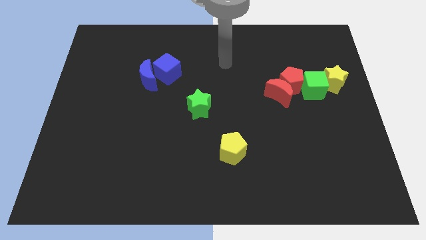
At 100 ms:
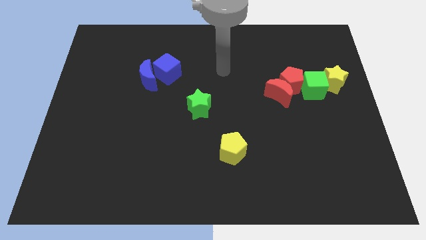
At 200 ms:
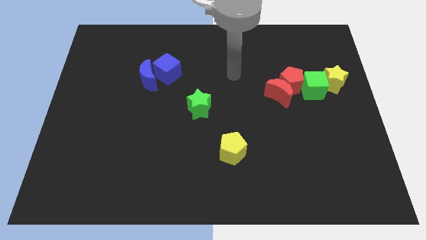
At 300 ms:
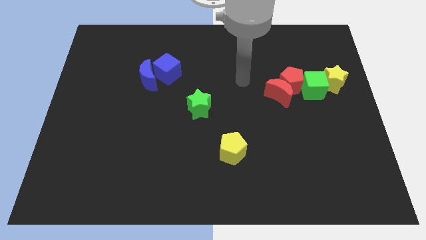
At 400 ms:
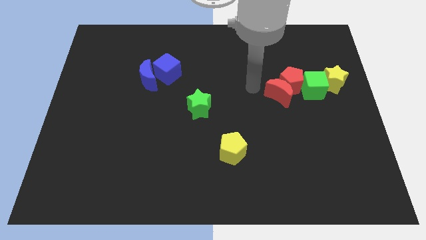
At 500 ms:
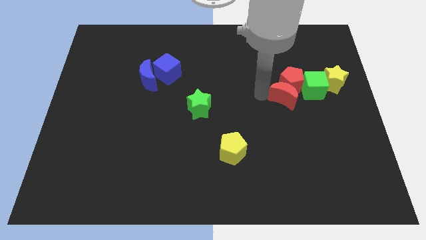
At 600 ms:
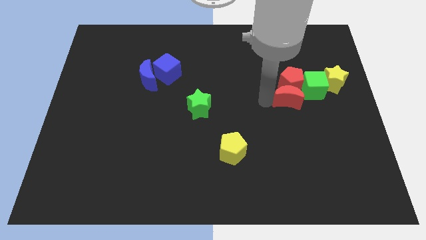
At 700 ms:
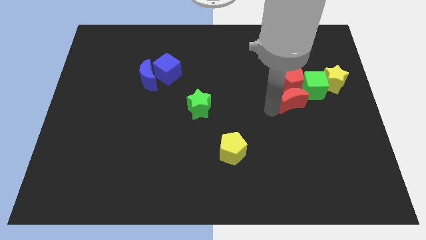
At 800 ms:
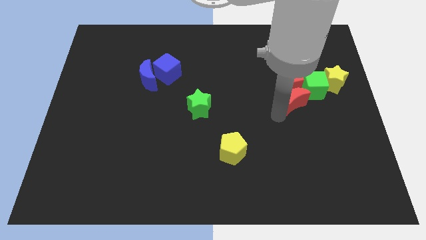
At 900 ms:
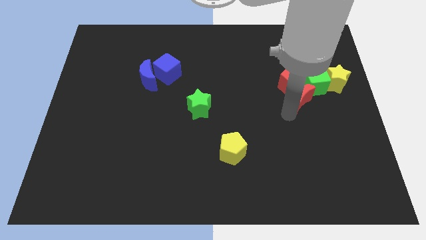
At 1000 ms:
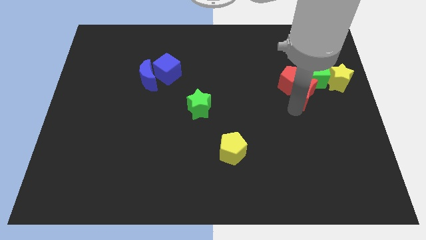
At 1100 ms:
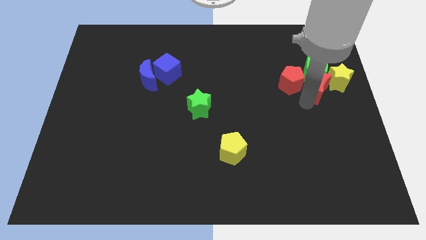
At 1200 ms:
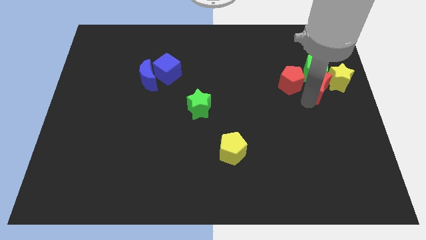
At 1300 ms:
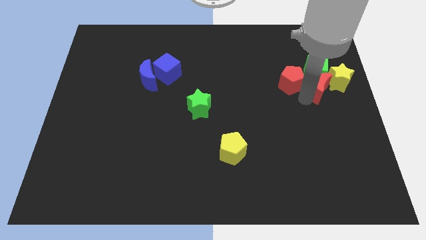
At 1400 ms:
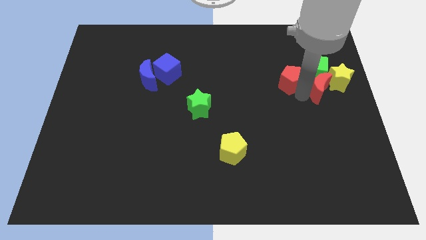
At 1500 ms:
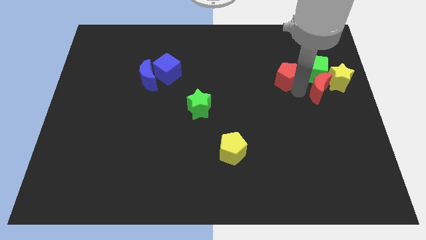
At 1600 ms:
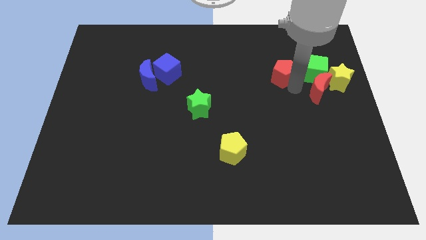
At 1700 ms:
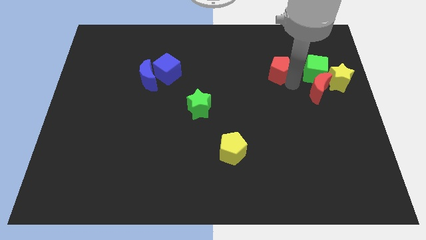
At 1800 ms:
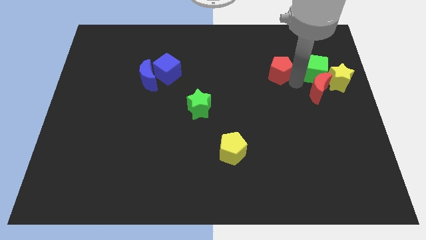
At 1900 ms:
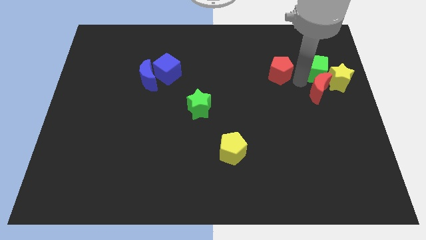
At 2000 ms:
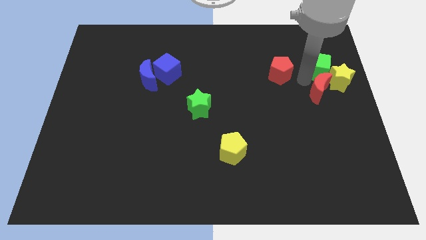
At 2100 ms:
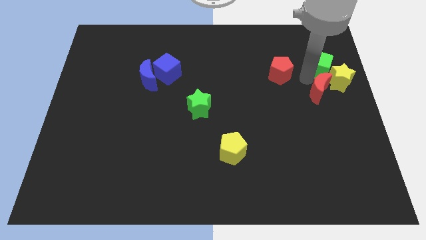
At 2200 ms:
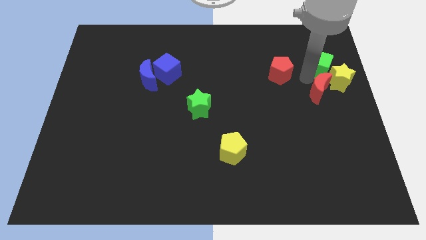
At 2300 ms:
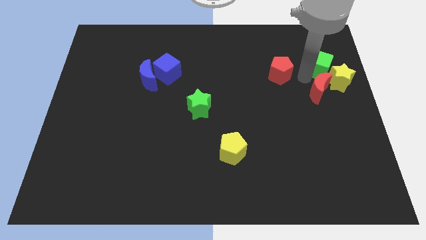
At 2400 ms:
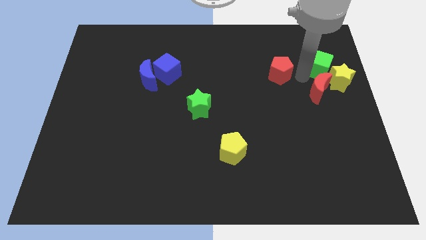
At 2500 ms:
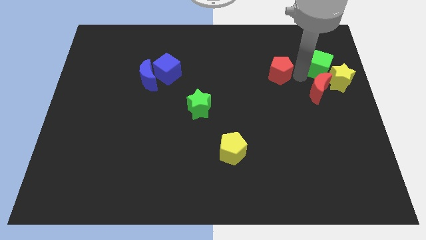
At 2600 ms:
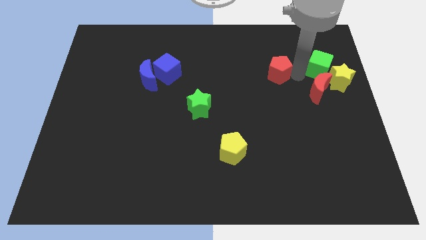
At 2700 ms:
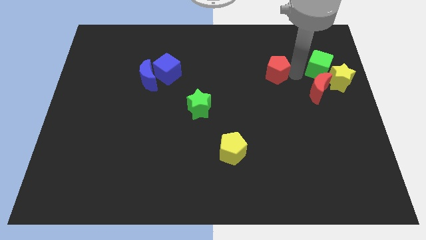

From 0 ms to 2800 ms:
separate the red pentagon from the red moon and green cube

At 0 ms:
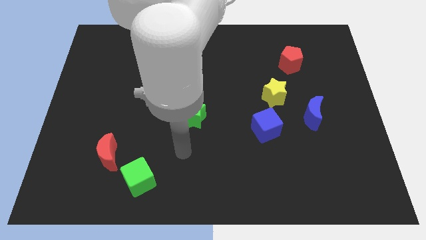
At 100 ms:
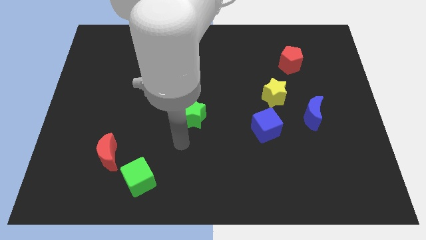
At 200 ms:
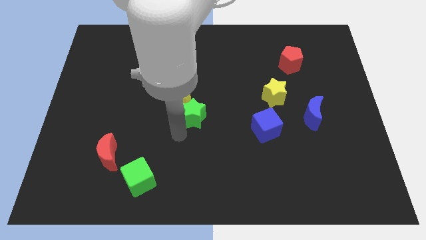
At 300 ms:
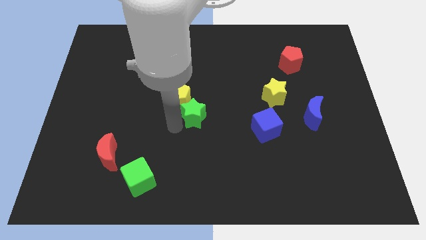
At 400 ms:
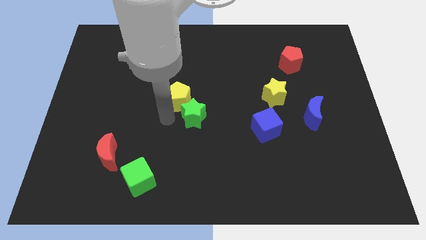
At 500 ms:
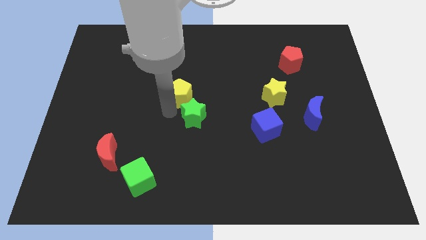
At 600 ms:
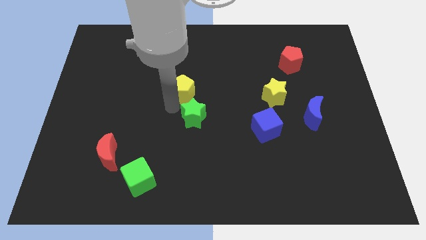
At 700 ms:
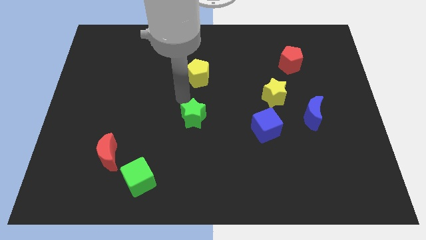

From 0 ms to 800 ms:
move the green star away from the yellow pentagon

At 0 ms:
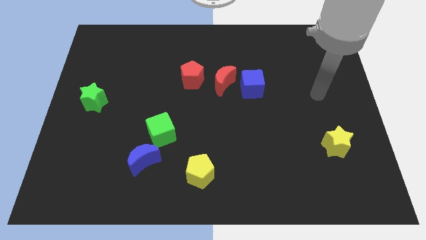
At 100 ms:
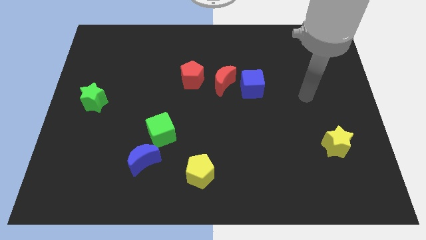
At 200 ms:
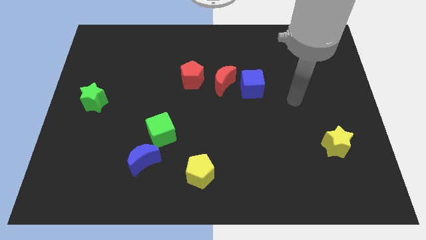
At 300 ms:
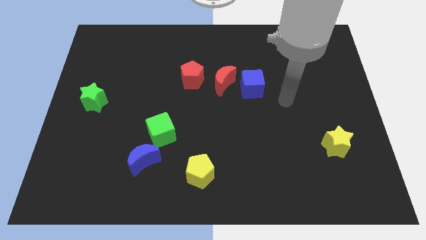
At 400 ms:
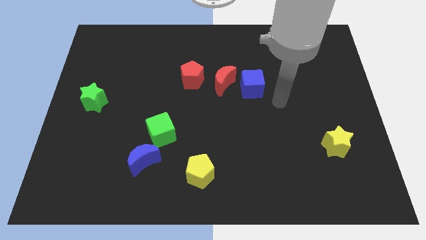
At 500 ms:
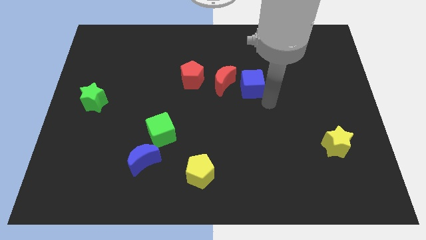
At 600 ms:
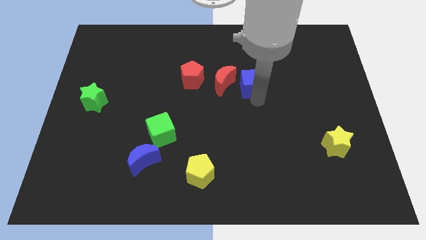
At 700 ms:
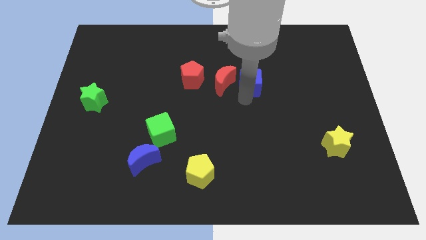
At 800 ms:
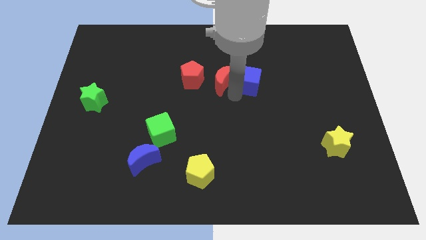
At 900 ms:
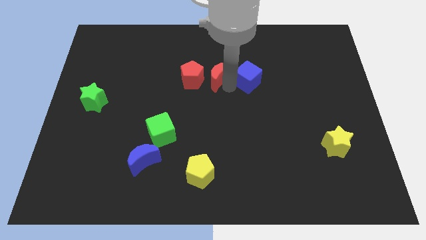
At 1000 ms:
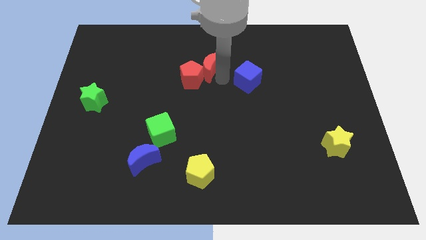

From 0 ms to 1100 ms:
separate the blue cube from the red moon

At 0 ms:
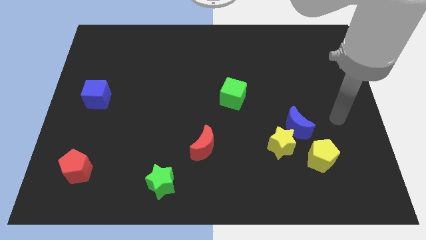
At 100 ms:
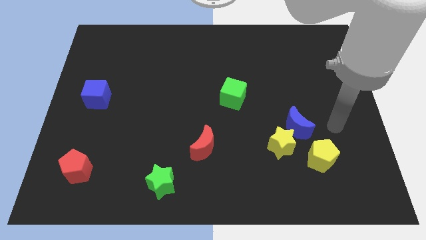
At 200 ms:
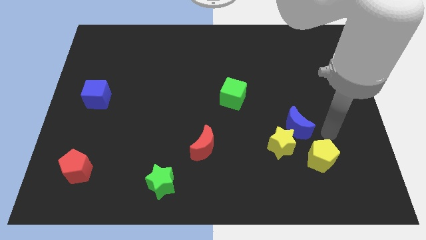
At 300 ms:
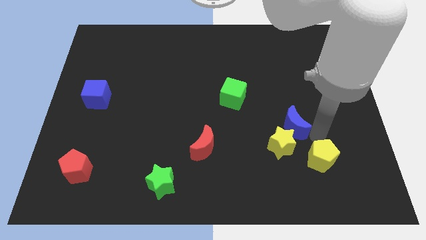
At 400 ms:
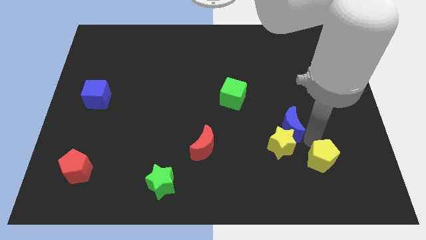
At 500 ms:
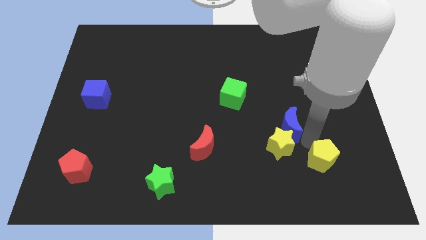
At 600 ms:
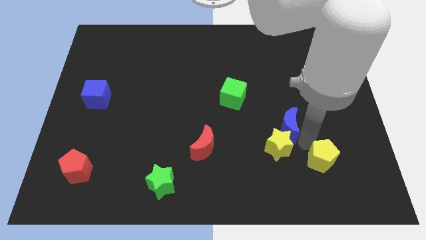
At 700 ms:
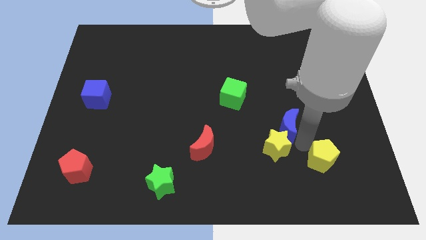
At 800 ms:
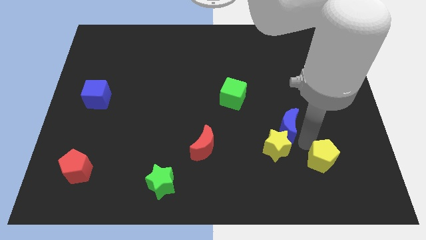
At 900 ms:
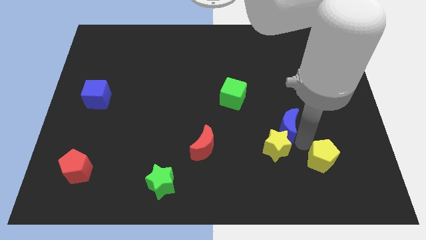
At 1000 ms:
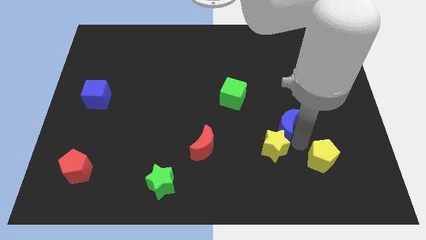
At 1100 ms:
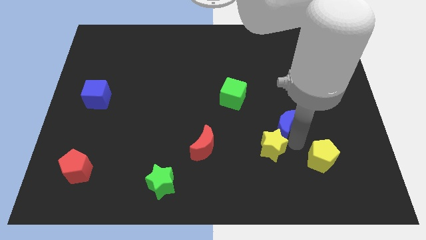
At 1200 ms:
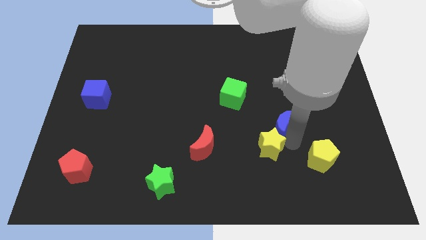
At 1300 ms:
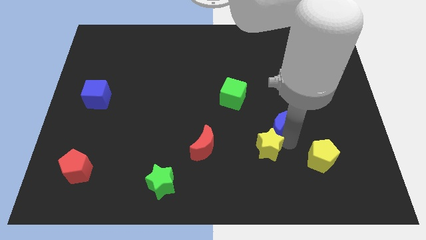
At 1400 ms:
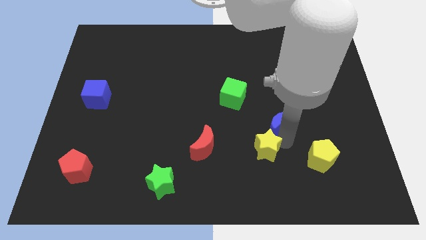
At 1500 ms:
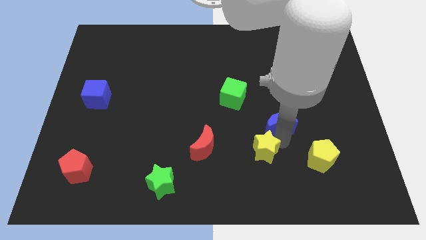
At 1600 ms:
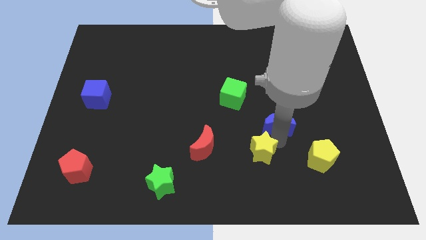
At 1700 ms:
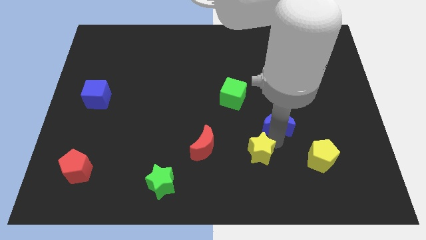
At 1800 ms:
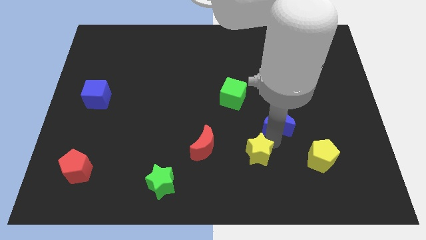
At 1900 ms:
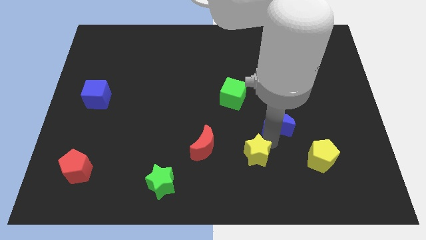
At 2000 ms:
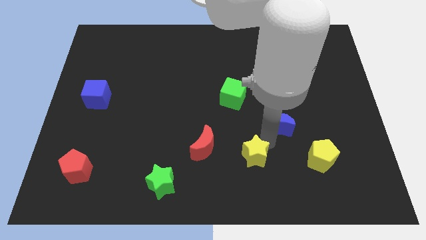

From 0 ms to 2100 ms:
move the yellow star away from the blue moon and yellow pentagon

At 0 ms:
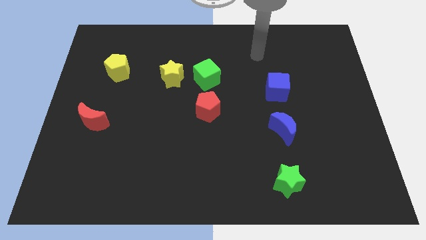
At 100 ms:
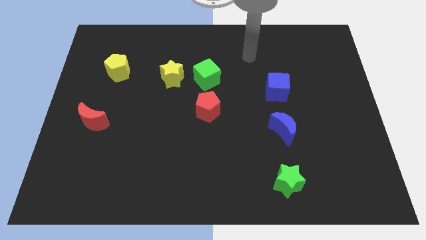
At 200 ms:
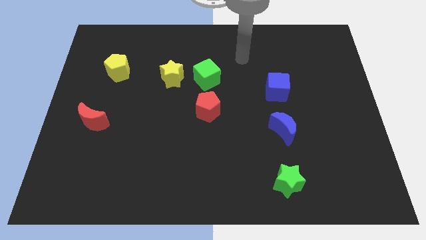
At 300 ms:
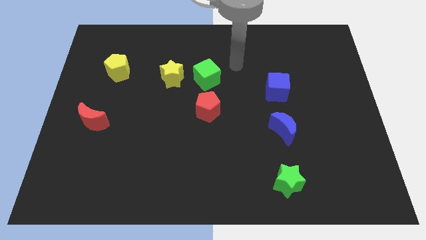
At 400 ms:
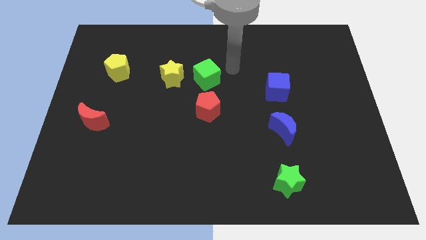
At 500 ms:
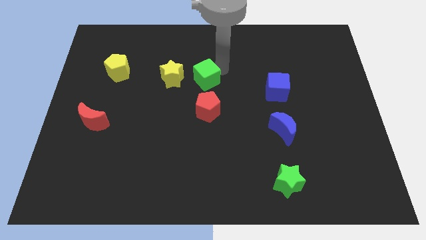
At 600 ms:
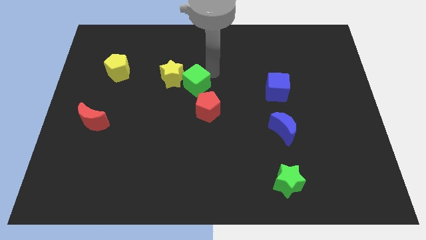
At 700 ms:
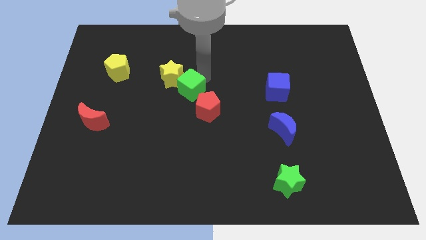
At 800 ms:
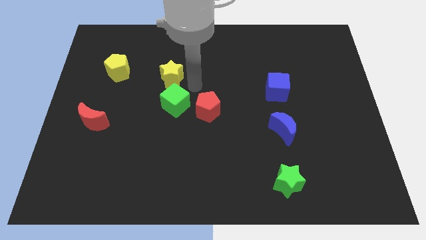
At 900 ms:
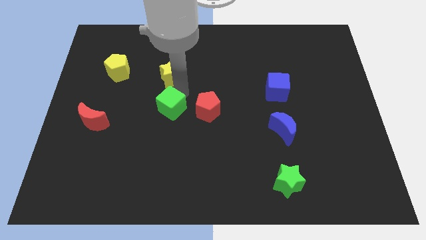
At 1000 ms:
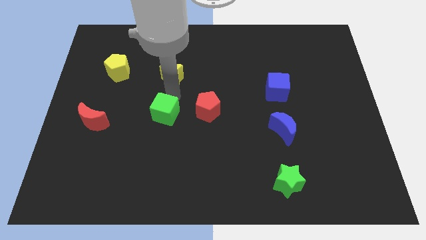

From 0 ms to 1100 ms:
move the yellow star away from the green cube

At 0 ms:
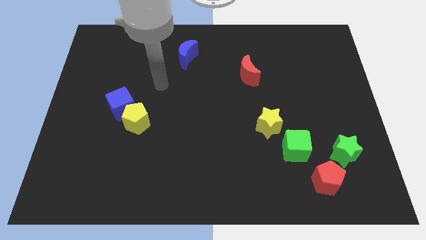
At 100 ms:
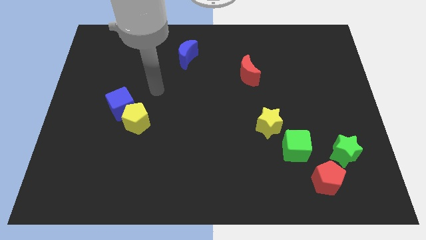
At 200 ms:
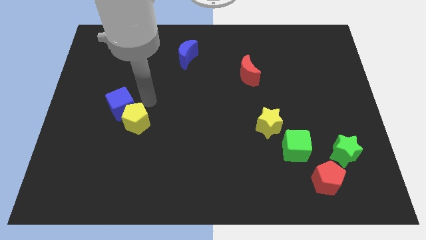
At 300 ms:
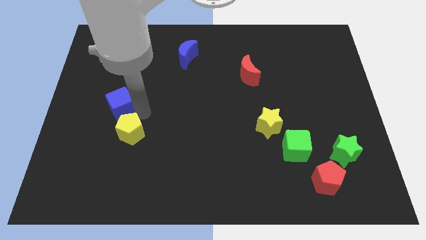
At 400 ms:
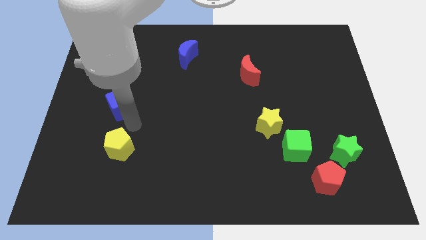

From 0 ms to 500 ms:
pull the blue cube apart from the yellow pentagon

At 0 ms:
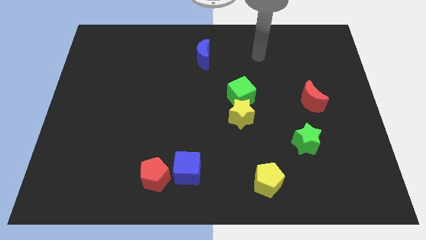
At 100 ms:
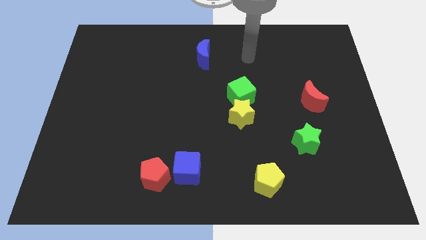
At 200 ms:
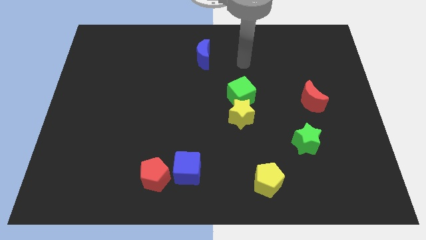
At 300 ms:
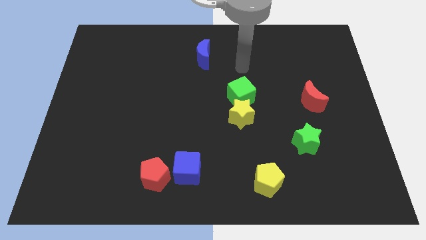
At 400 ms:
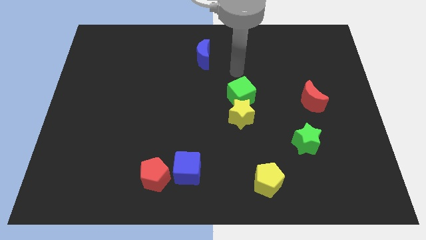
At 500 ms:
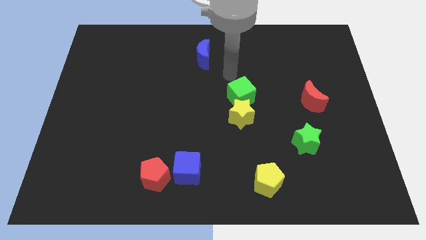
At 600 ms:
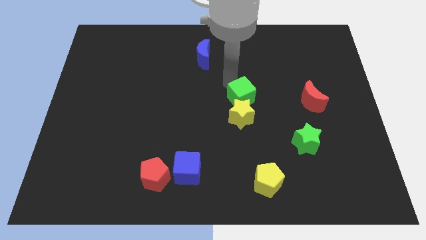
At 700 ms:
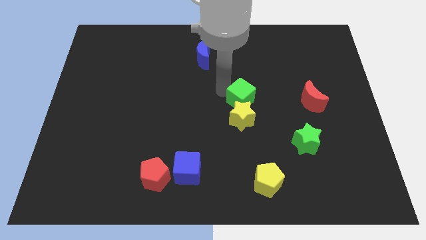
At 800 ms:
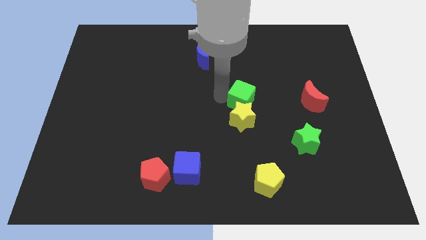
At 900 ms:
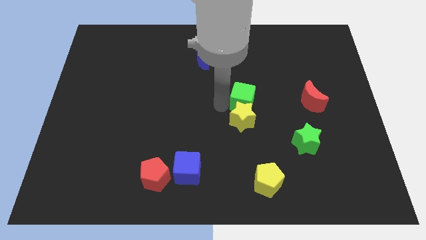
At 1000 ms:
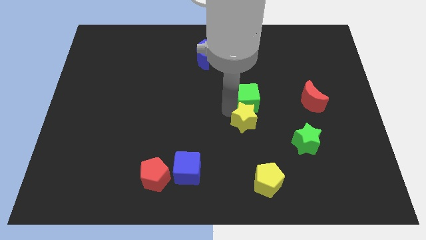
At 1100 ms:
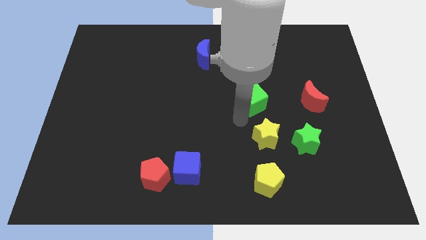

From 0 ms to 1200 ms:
separate the green cube from the yellow star
